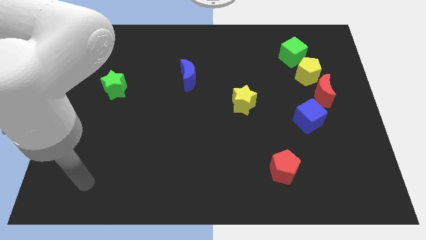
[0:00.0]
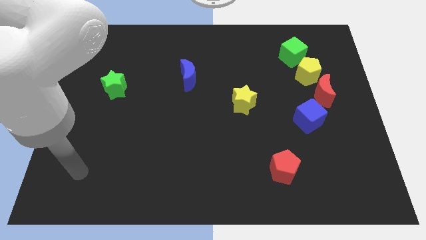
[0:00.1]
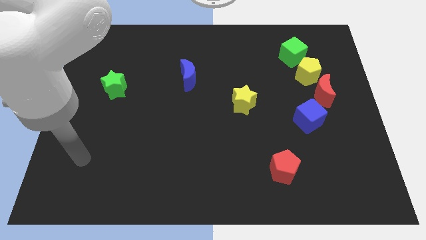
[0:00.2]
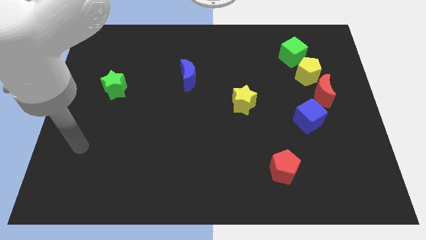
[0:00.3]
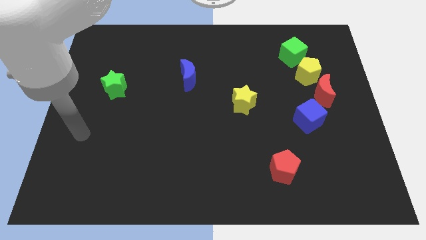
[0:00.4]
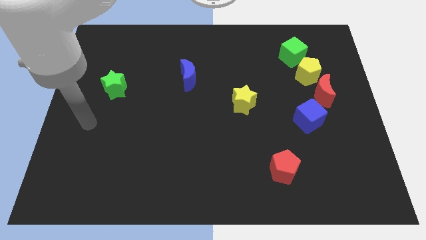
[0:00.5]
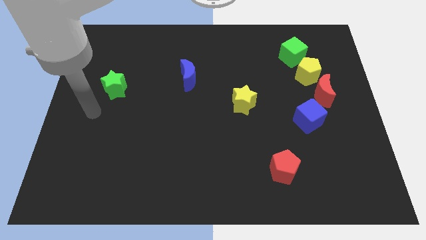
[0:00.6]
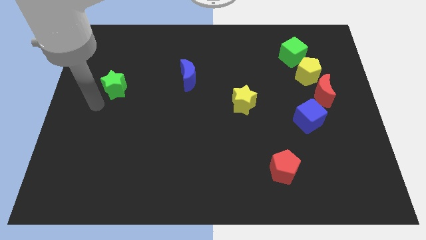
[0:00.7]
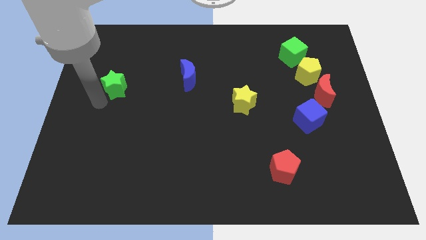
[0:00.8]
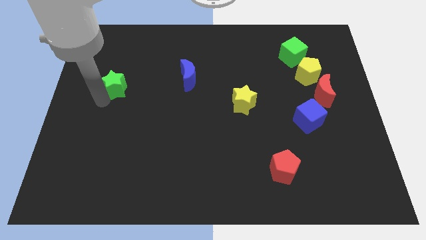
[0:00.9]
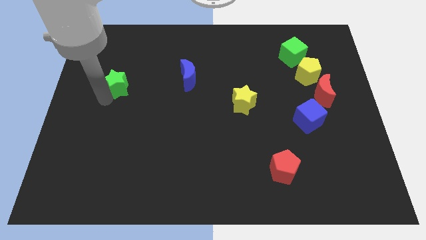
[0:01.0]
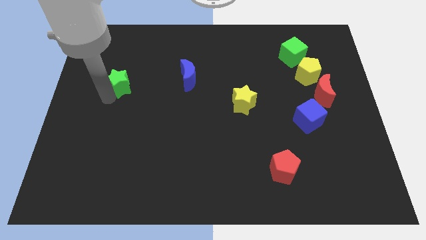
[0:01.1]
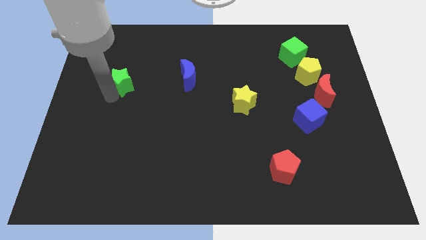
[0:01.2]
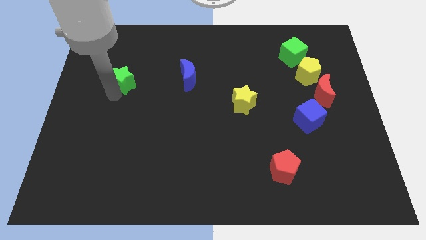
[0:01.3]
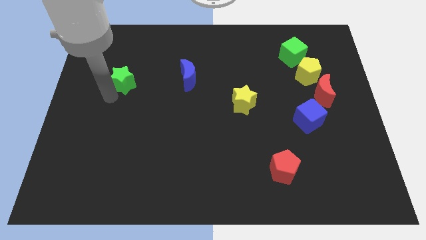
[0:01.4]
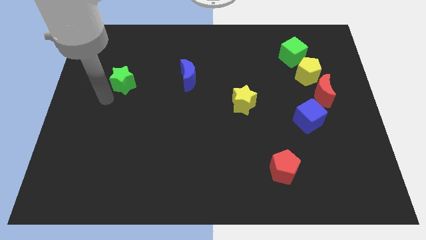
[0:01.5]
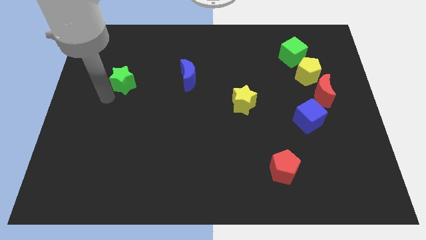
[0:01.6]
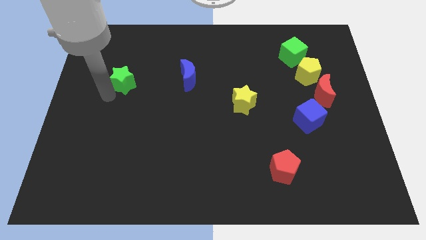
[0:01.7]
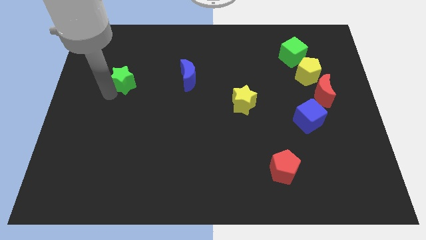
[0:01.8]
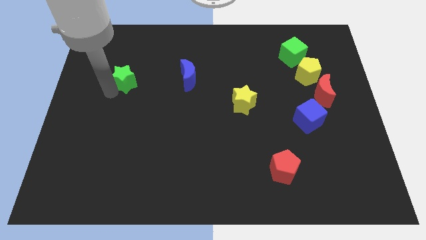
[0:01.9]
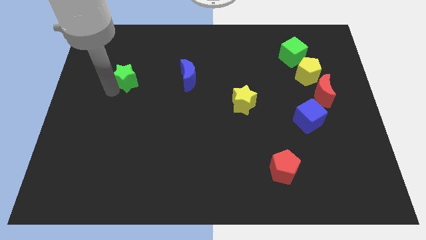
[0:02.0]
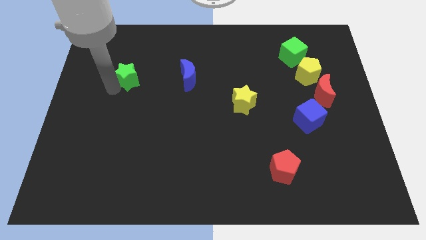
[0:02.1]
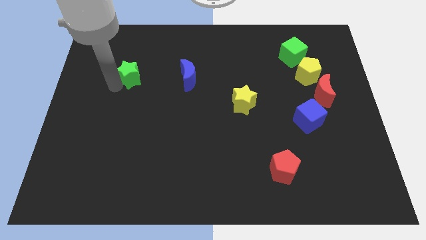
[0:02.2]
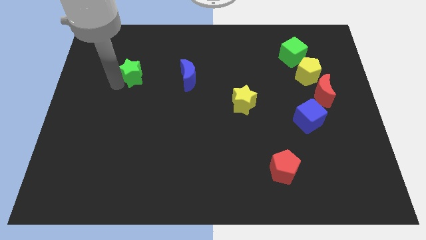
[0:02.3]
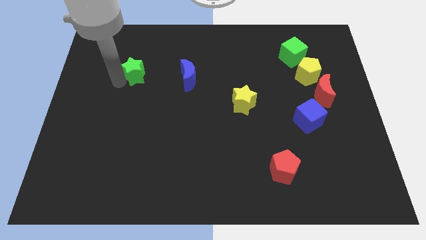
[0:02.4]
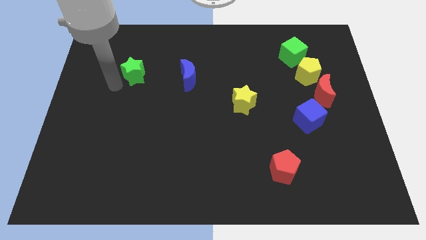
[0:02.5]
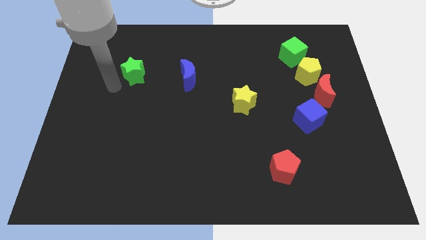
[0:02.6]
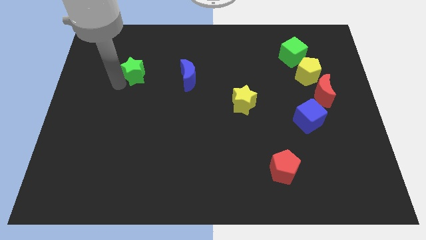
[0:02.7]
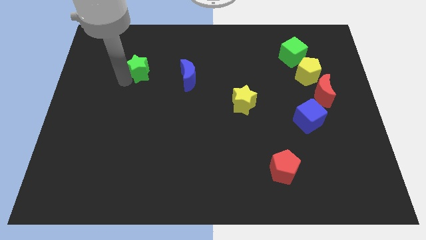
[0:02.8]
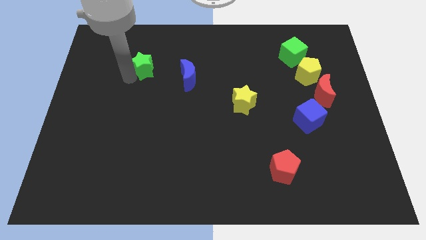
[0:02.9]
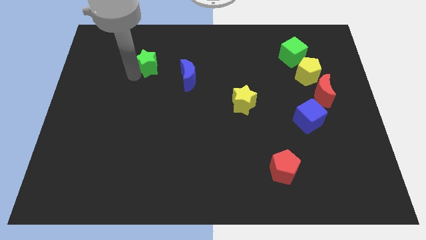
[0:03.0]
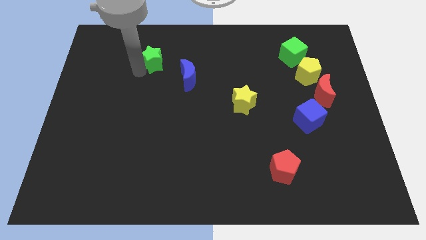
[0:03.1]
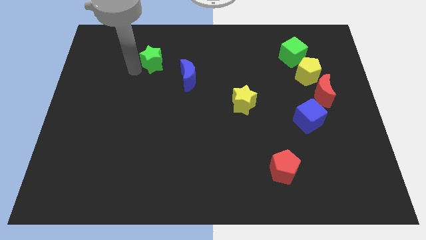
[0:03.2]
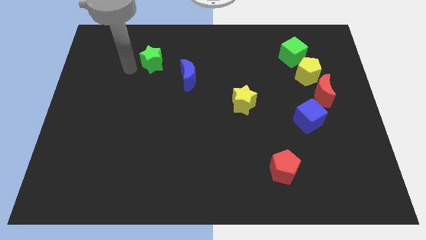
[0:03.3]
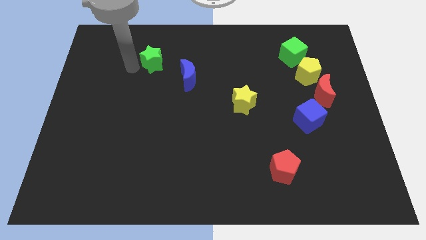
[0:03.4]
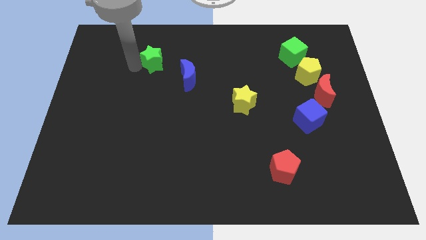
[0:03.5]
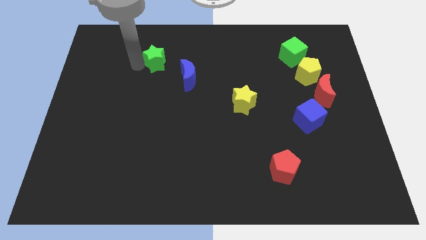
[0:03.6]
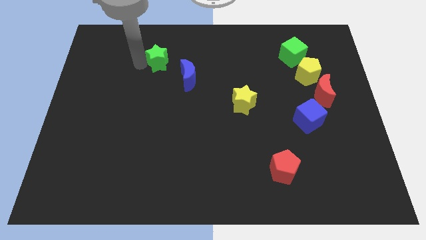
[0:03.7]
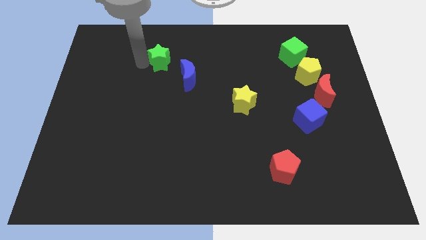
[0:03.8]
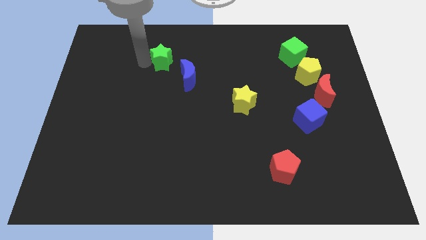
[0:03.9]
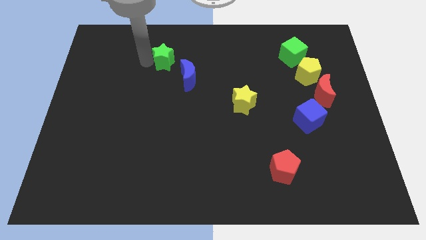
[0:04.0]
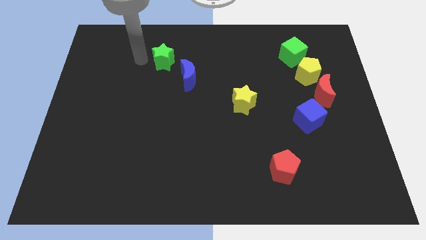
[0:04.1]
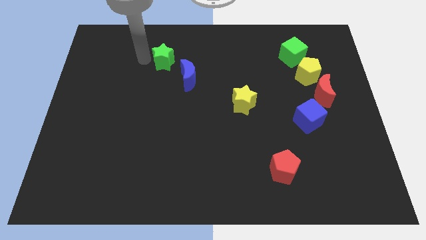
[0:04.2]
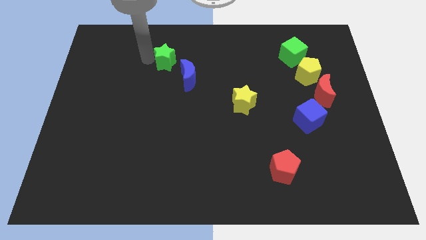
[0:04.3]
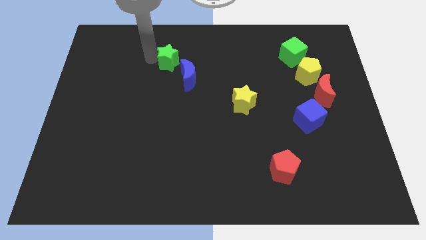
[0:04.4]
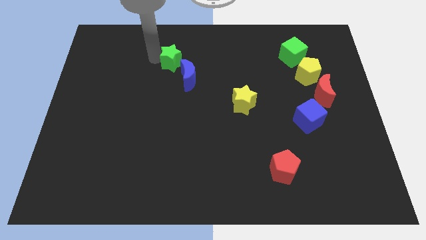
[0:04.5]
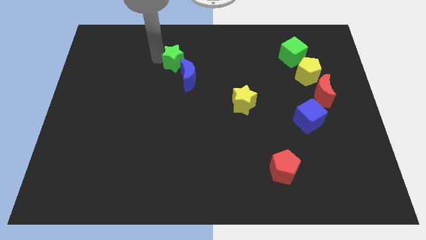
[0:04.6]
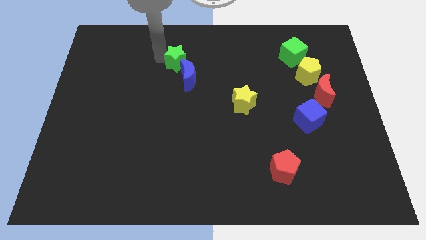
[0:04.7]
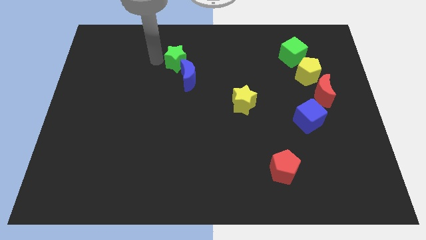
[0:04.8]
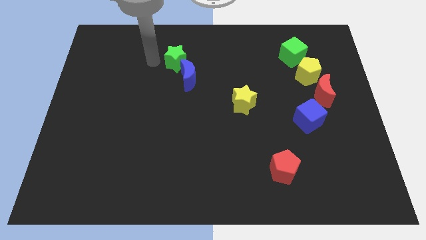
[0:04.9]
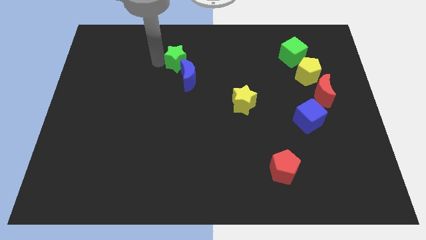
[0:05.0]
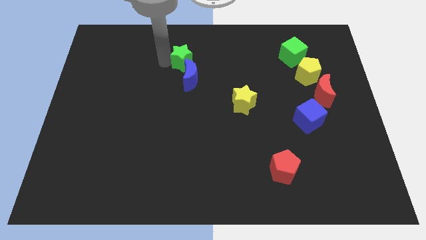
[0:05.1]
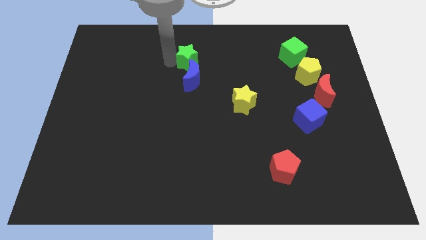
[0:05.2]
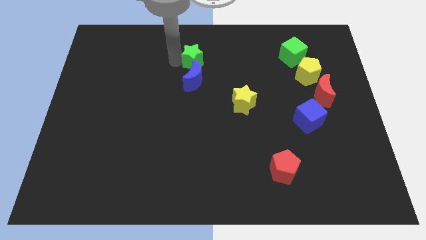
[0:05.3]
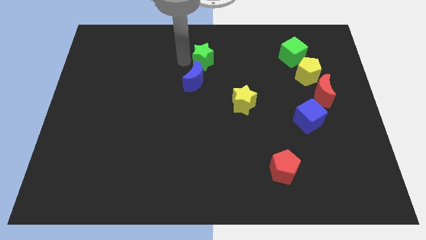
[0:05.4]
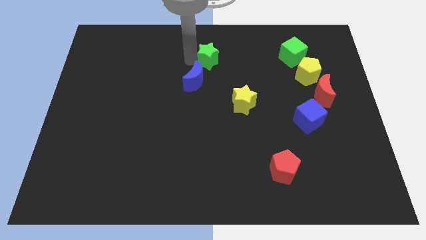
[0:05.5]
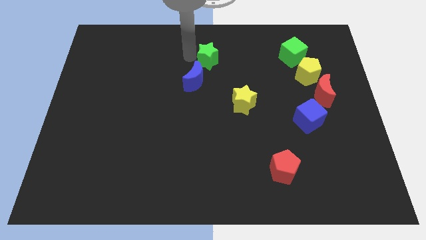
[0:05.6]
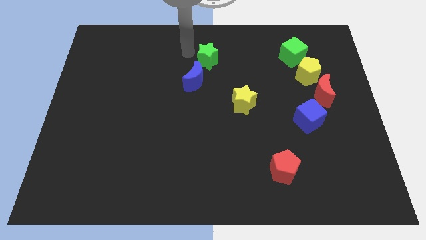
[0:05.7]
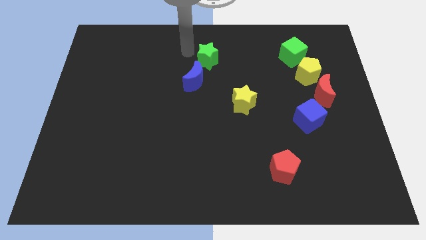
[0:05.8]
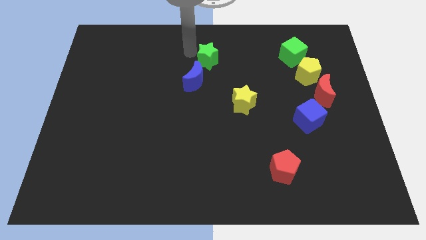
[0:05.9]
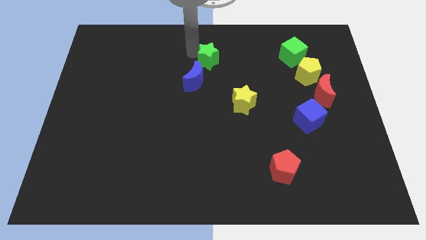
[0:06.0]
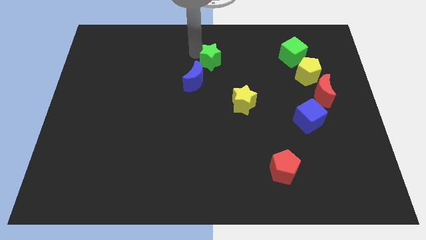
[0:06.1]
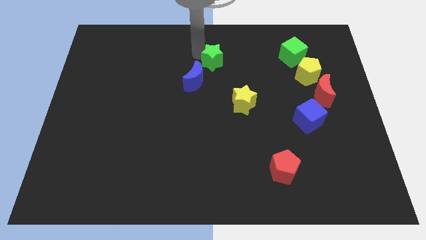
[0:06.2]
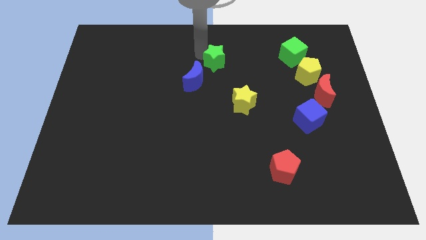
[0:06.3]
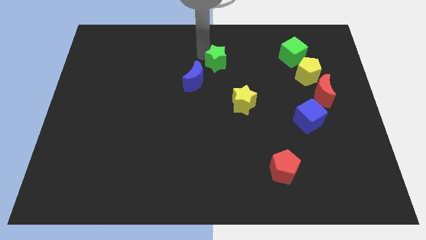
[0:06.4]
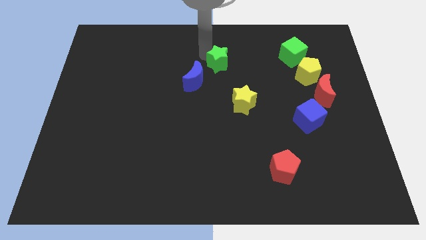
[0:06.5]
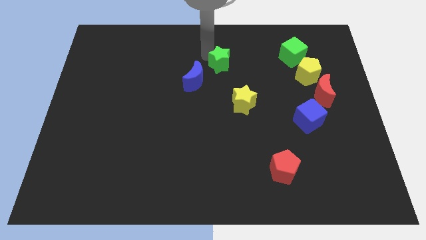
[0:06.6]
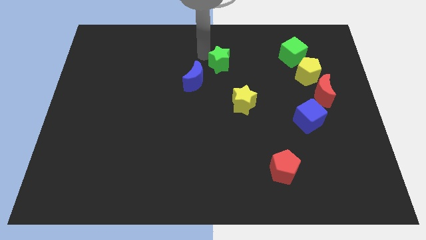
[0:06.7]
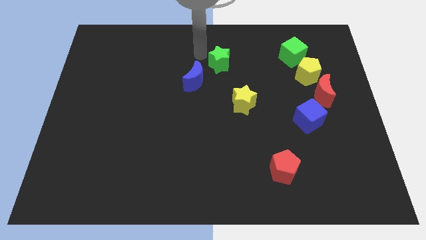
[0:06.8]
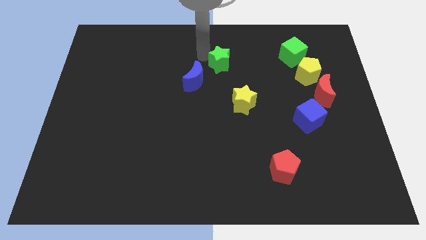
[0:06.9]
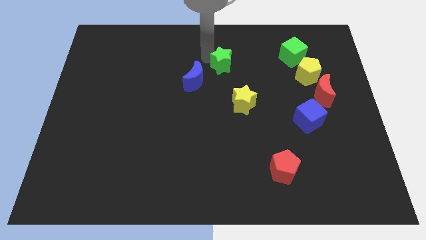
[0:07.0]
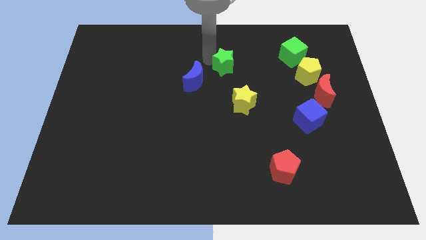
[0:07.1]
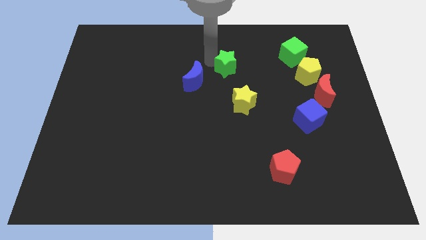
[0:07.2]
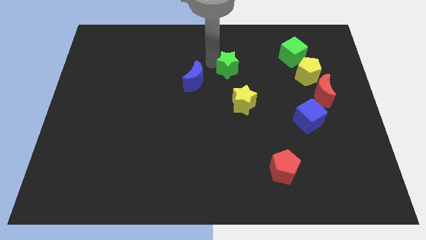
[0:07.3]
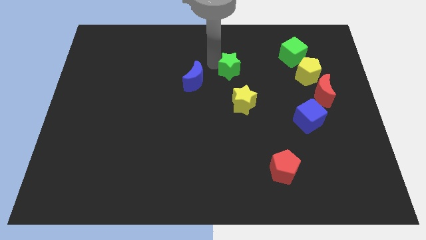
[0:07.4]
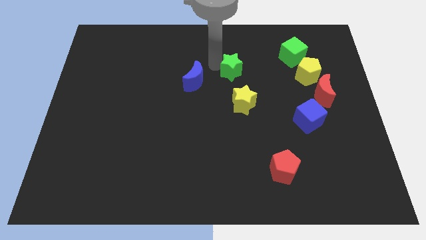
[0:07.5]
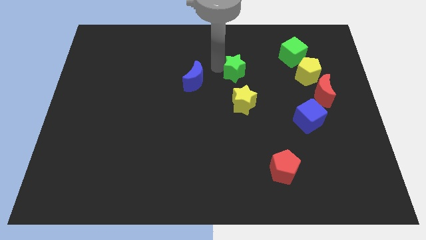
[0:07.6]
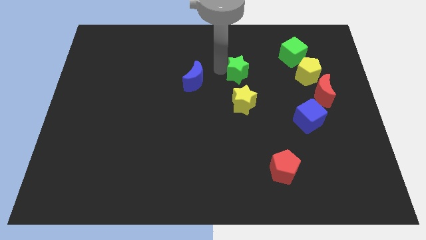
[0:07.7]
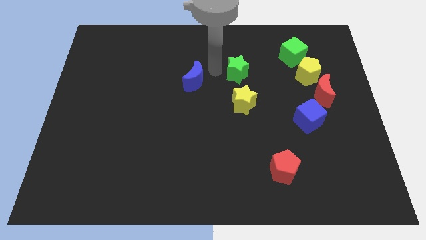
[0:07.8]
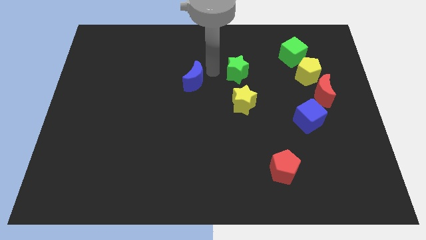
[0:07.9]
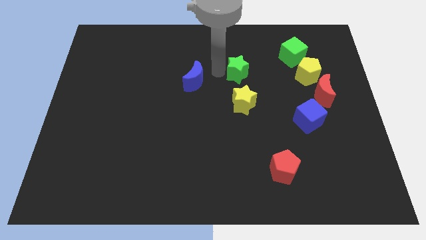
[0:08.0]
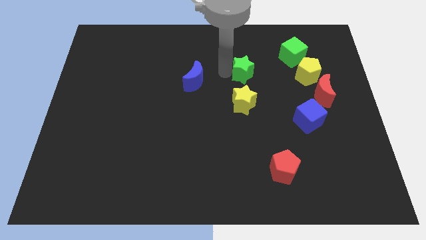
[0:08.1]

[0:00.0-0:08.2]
move the green star to the left of the yellow pentagon
